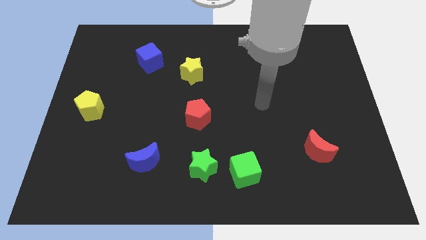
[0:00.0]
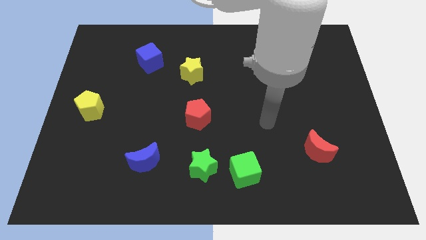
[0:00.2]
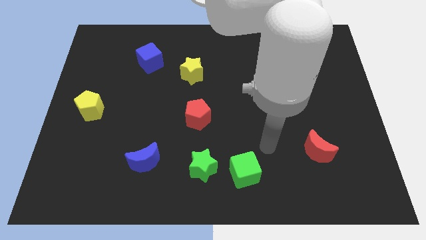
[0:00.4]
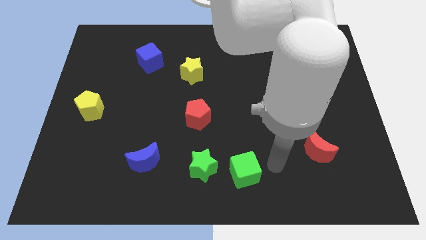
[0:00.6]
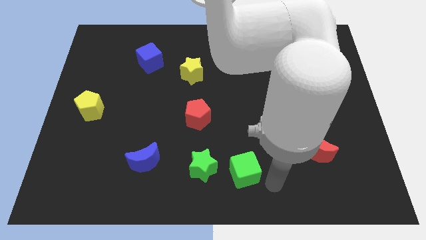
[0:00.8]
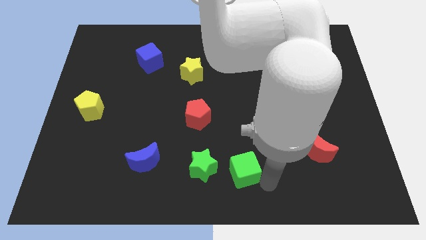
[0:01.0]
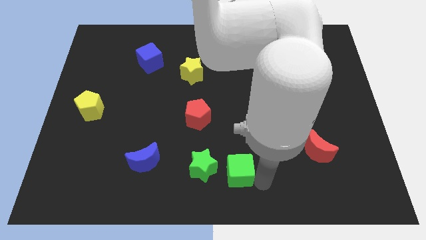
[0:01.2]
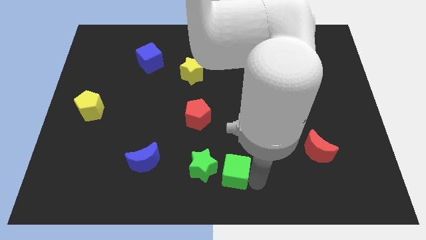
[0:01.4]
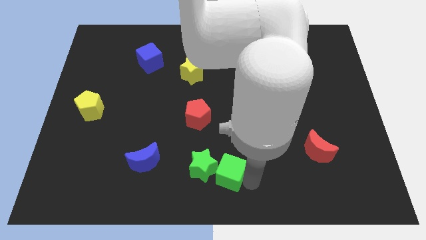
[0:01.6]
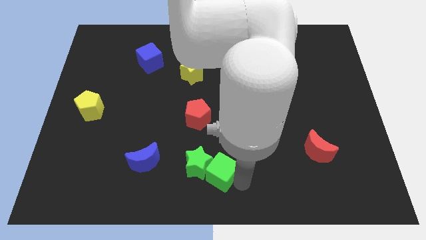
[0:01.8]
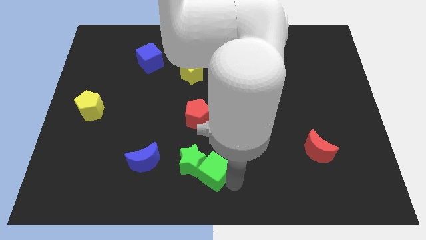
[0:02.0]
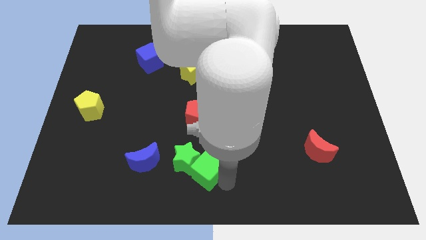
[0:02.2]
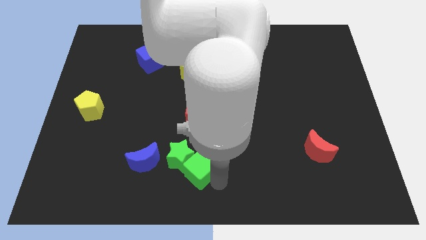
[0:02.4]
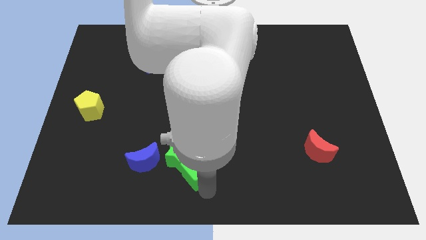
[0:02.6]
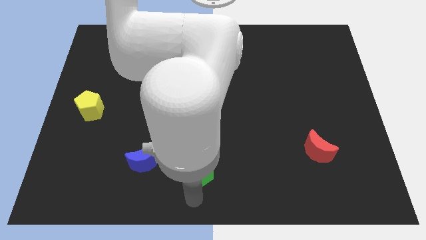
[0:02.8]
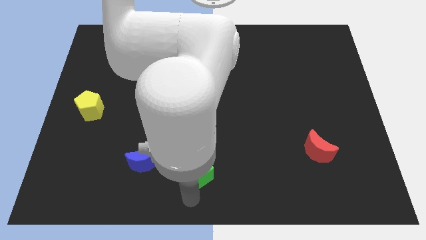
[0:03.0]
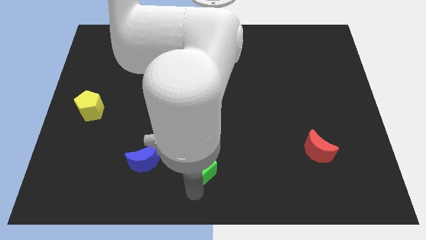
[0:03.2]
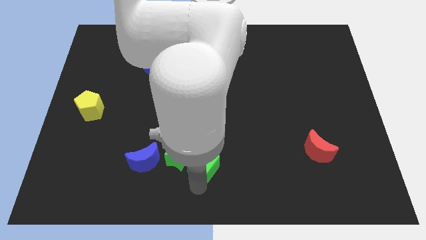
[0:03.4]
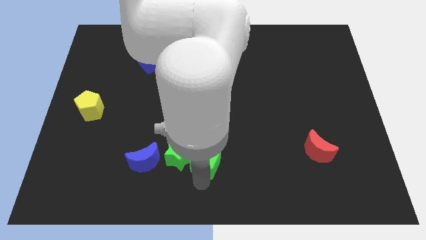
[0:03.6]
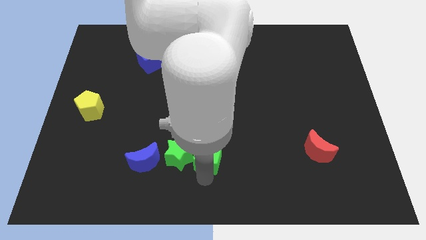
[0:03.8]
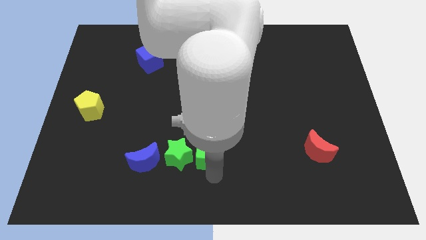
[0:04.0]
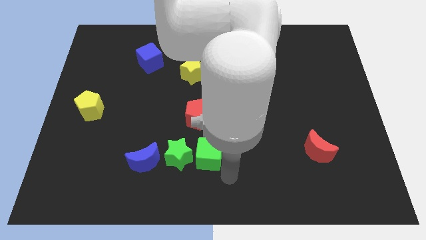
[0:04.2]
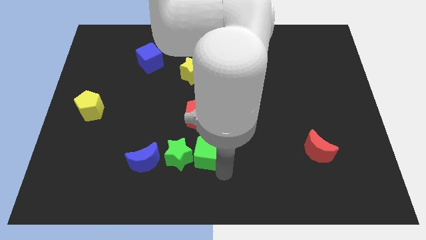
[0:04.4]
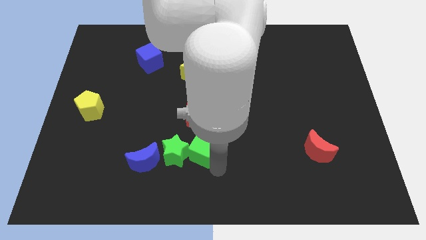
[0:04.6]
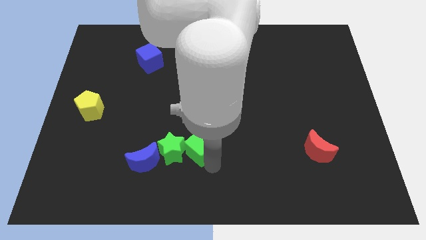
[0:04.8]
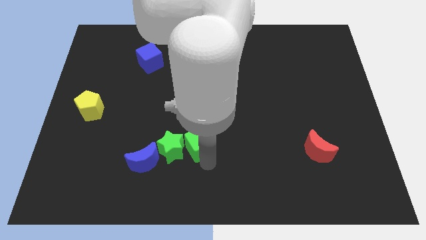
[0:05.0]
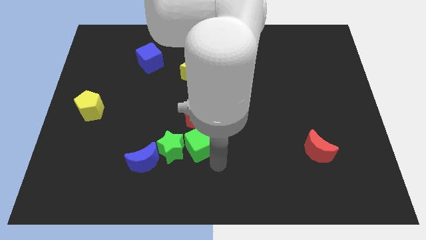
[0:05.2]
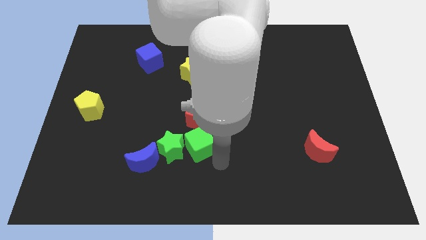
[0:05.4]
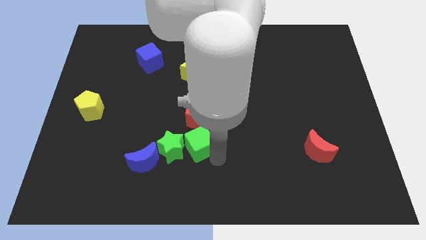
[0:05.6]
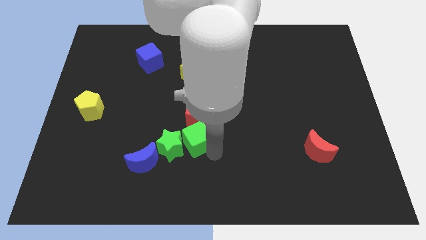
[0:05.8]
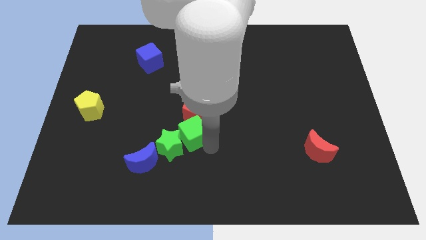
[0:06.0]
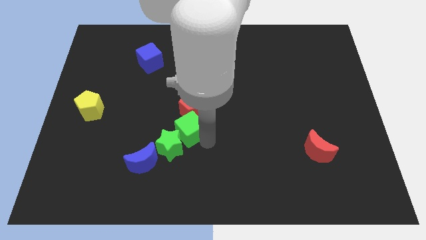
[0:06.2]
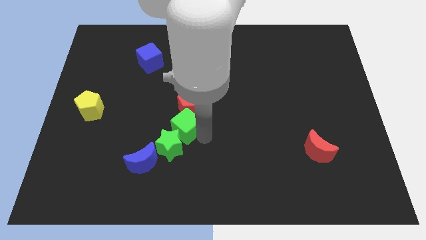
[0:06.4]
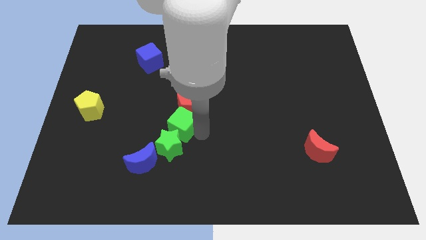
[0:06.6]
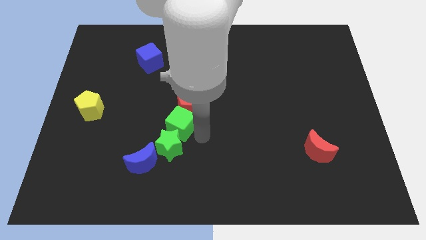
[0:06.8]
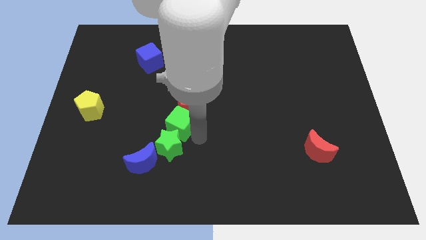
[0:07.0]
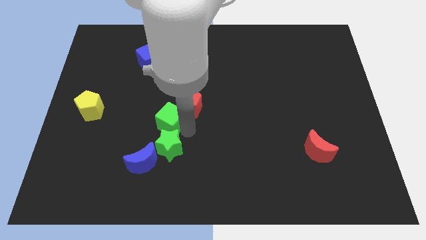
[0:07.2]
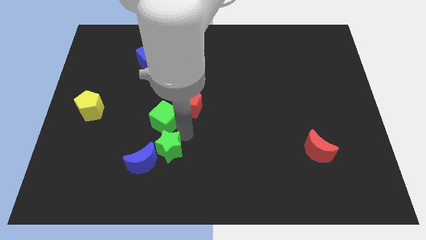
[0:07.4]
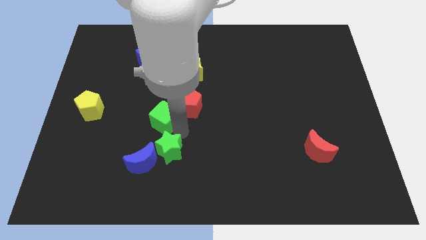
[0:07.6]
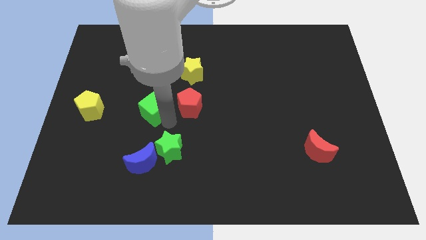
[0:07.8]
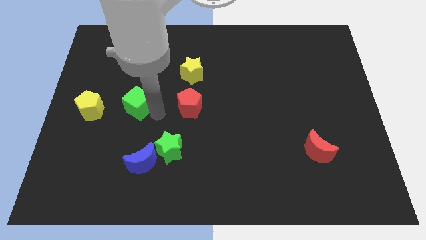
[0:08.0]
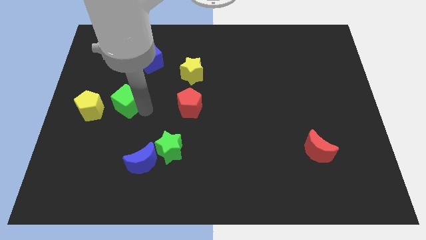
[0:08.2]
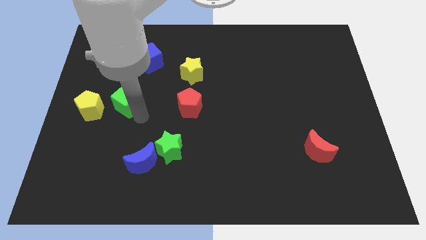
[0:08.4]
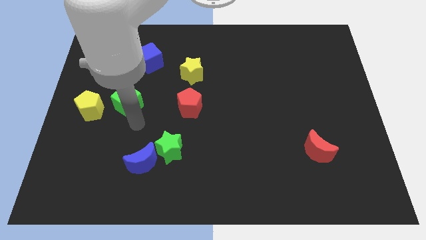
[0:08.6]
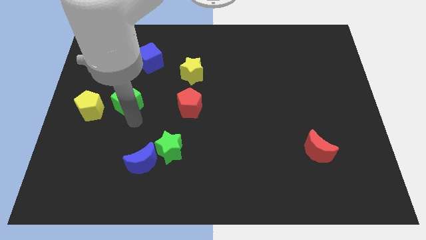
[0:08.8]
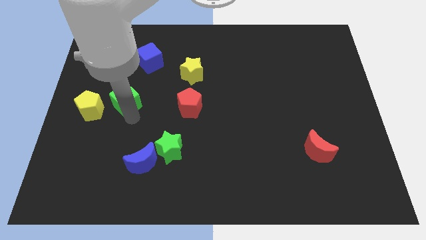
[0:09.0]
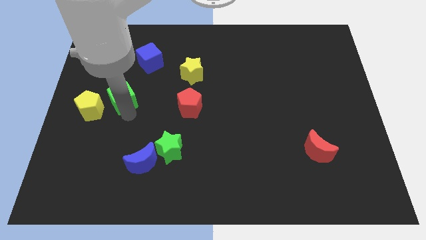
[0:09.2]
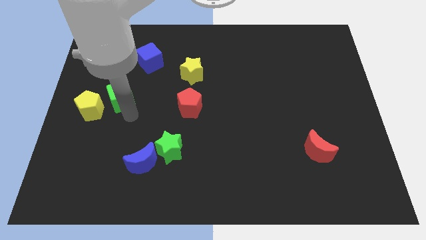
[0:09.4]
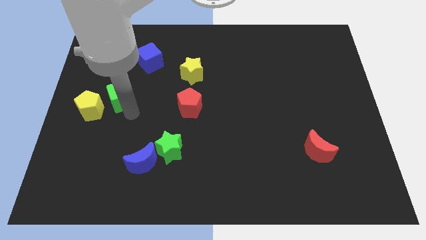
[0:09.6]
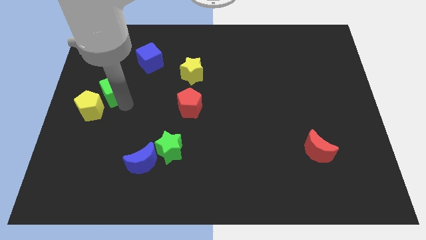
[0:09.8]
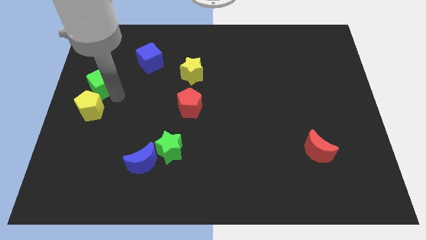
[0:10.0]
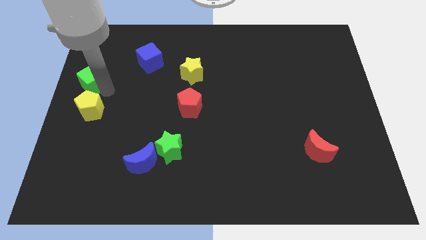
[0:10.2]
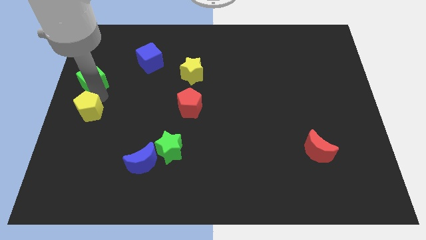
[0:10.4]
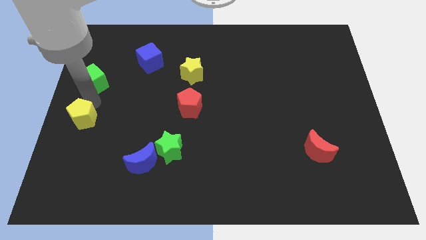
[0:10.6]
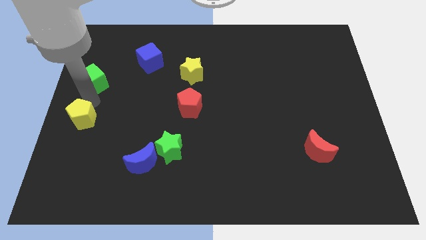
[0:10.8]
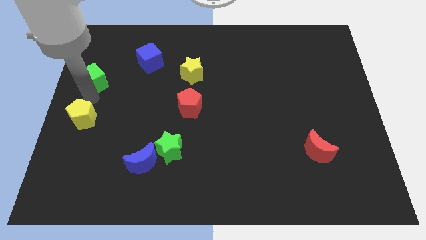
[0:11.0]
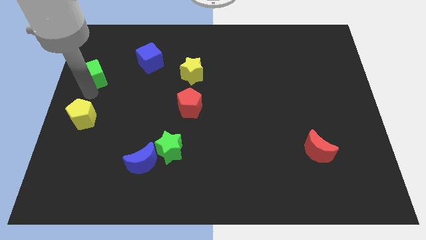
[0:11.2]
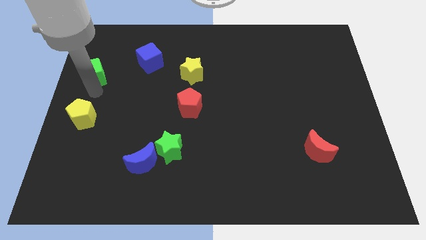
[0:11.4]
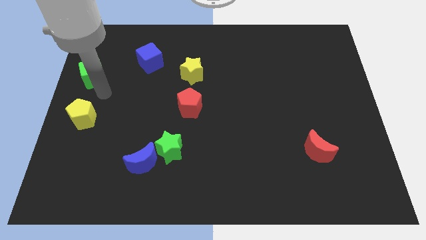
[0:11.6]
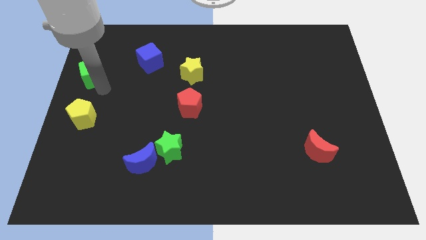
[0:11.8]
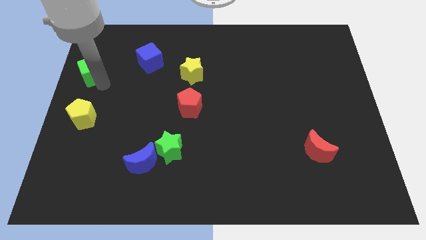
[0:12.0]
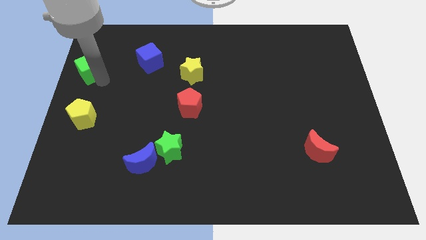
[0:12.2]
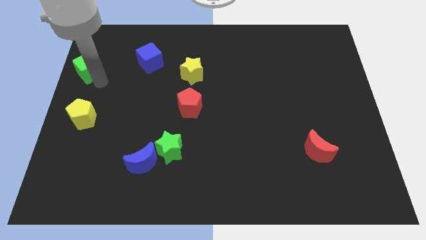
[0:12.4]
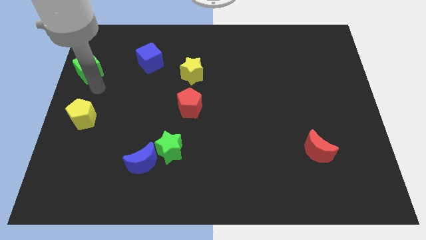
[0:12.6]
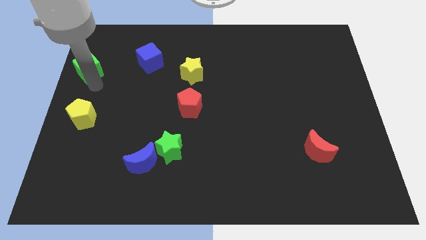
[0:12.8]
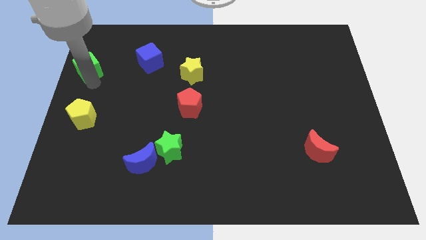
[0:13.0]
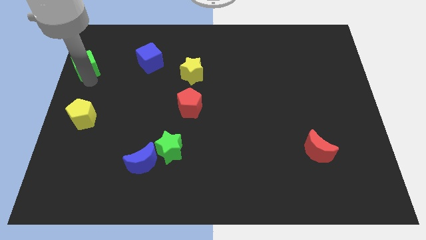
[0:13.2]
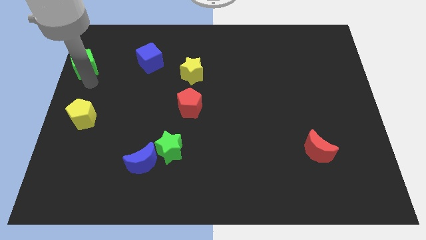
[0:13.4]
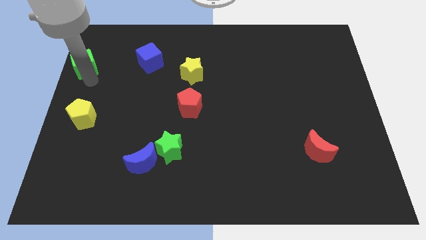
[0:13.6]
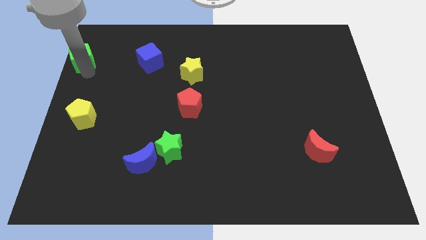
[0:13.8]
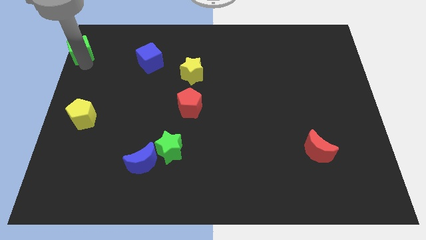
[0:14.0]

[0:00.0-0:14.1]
move the green cube to the top left of the board
